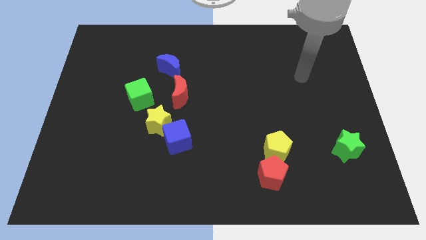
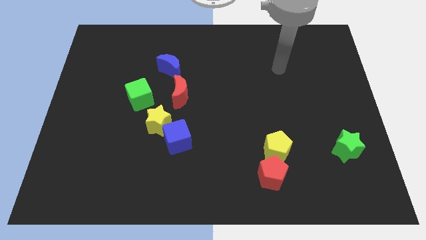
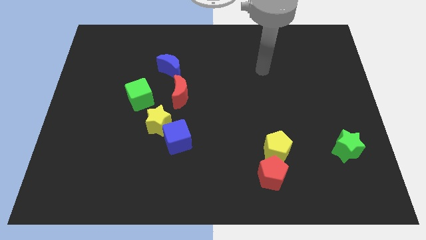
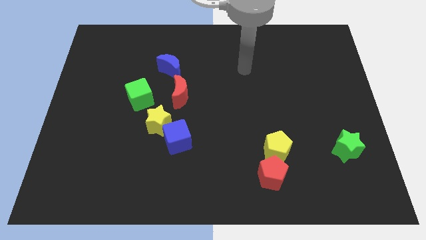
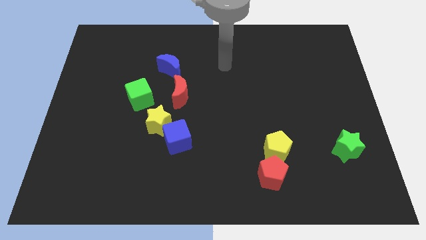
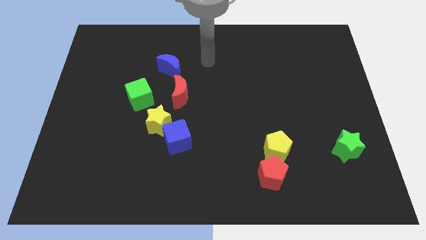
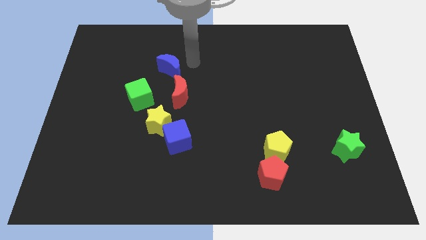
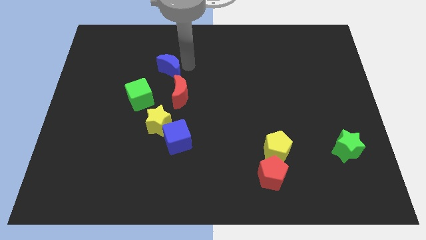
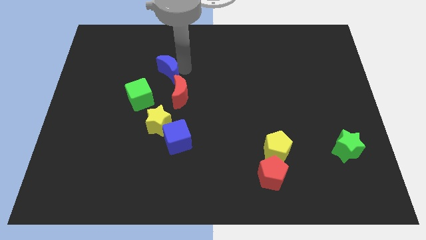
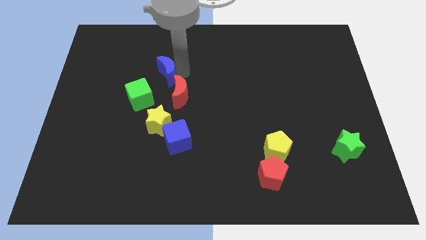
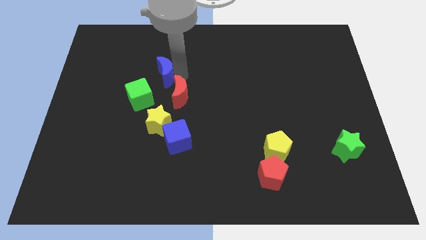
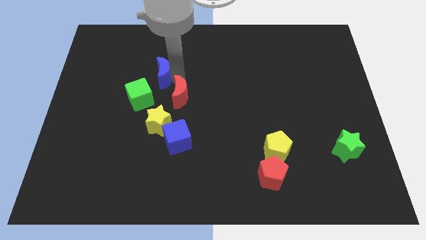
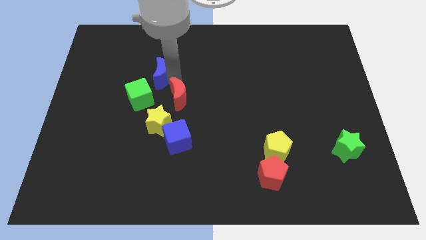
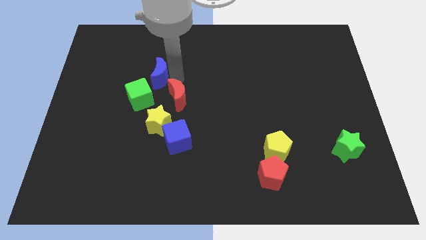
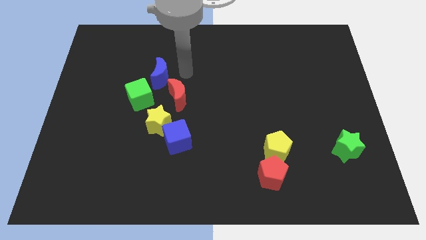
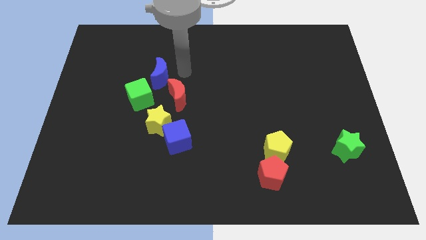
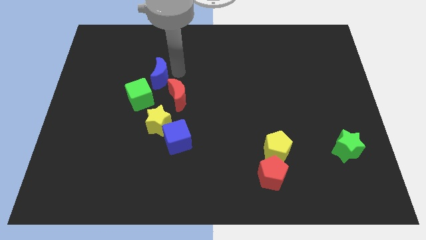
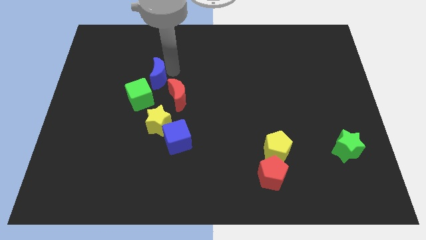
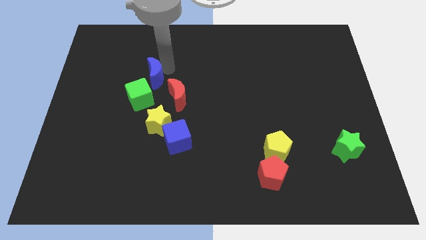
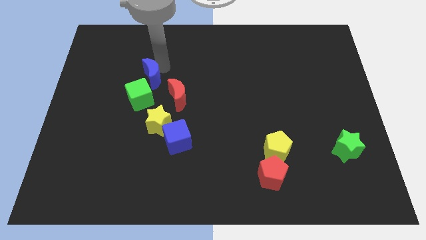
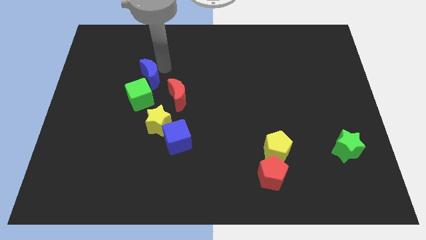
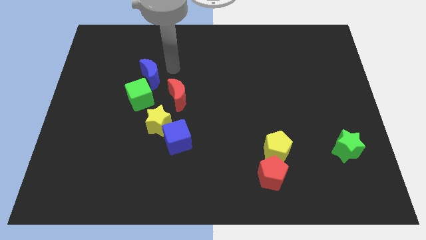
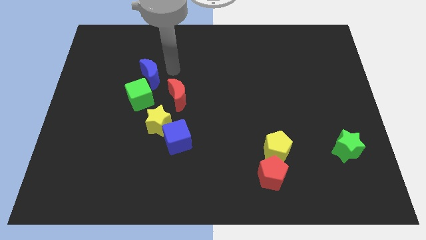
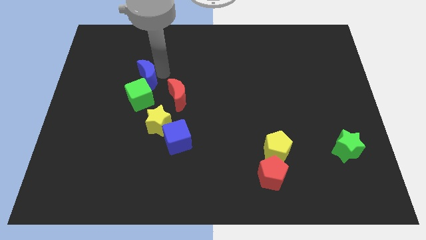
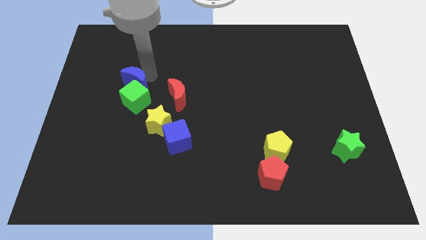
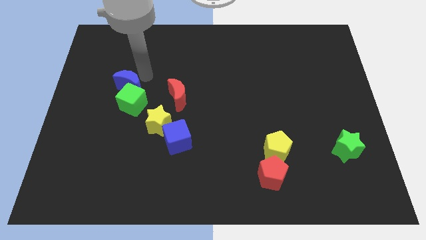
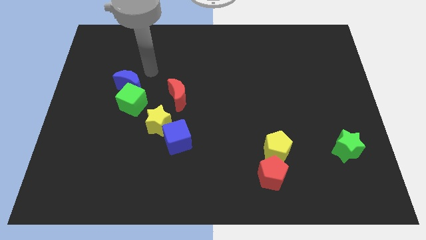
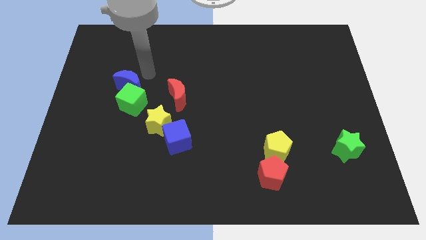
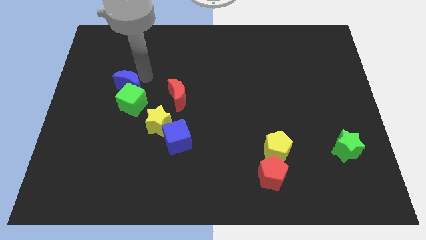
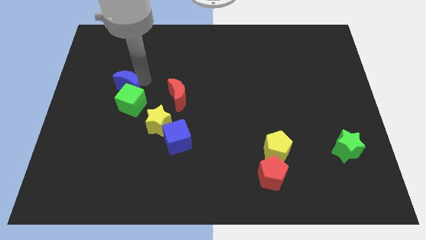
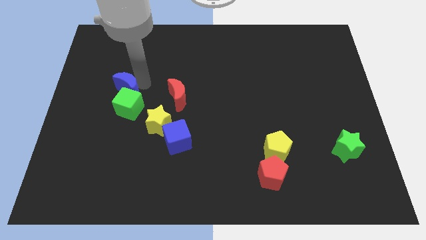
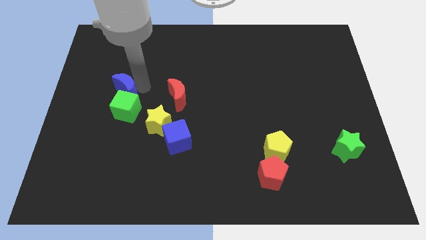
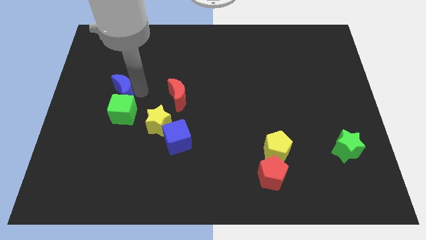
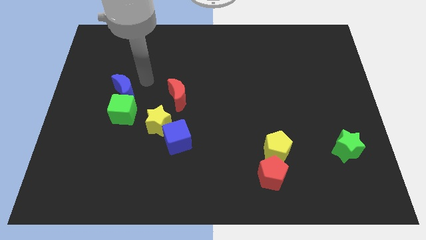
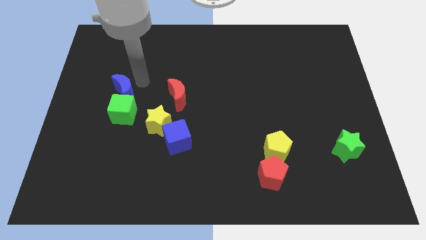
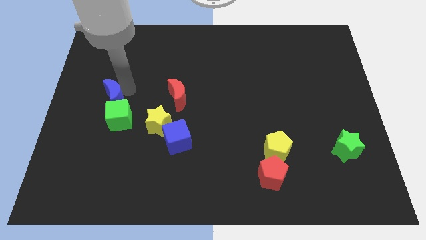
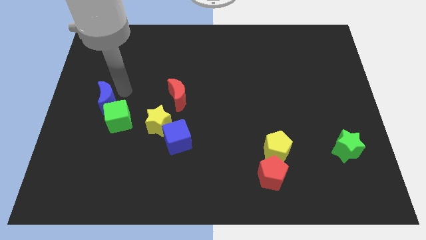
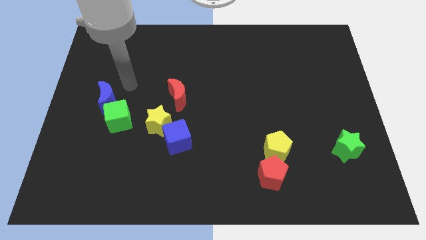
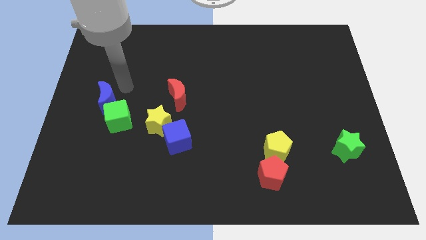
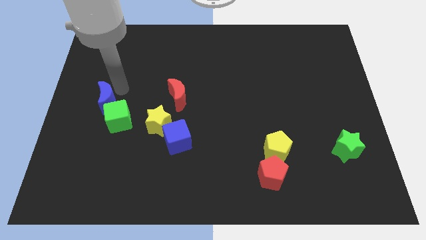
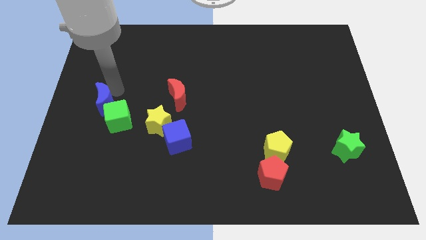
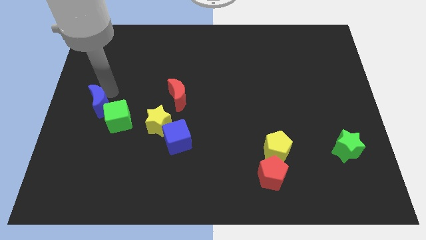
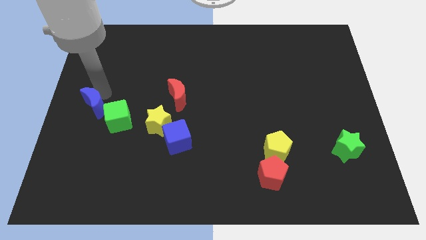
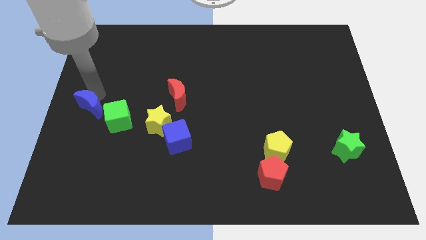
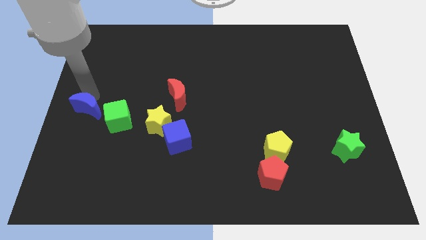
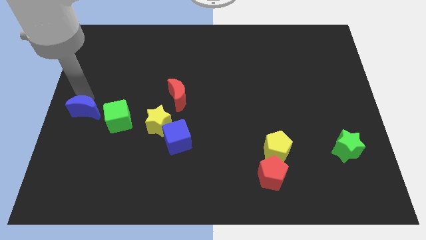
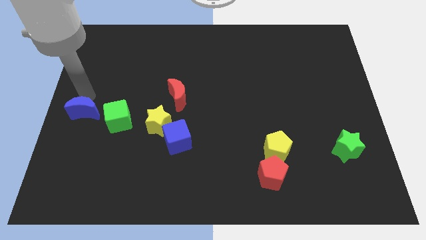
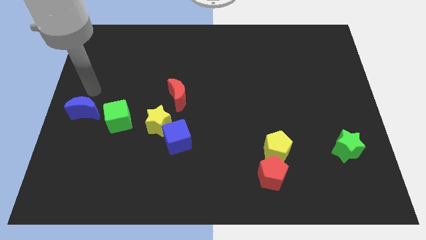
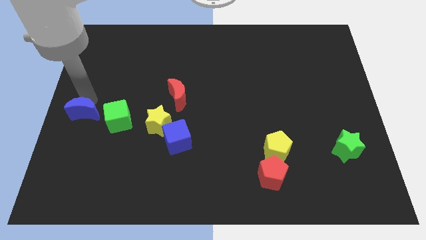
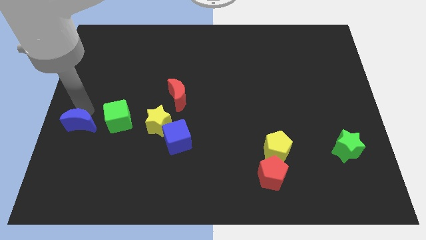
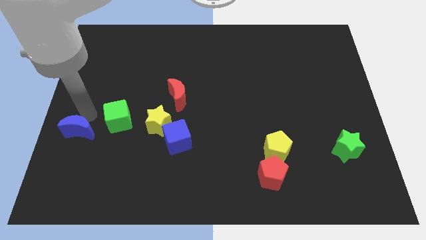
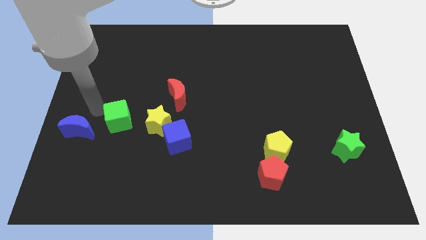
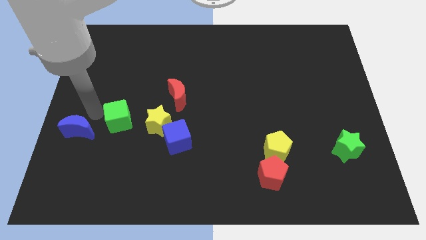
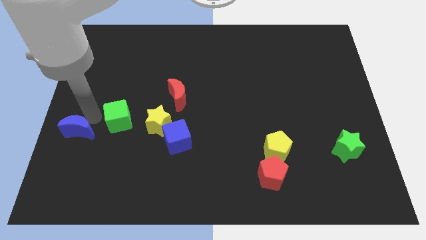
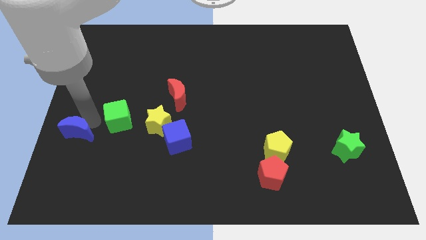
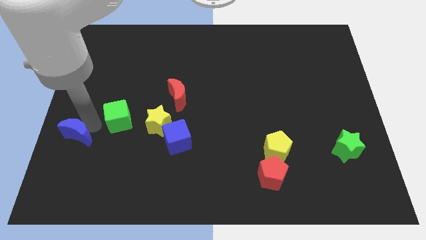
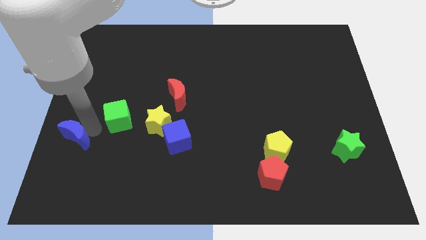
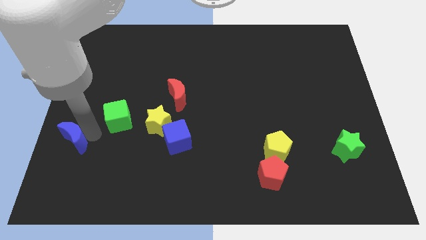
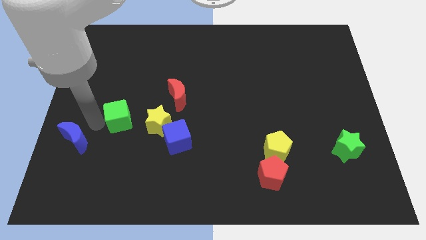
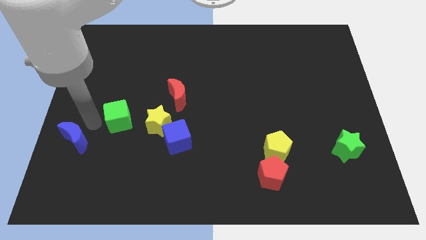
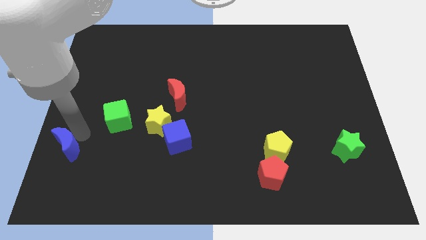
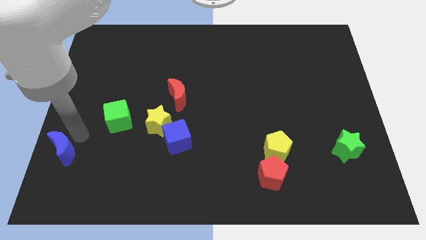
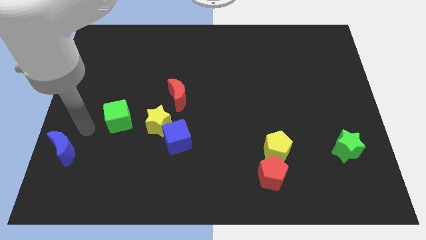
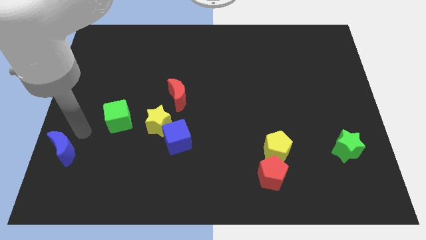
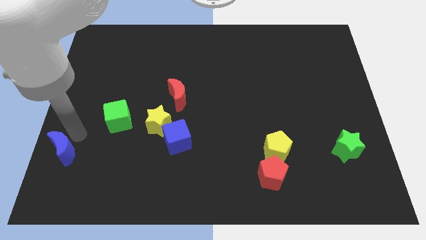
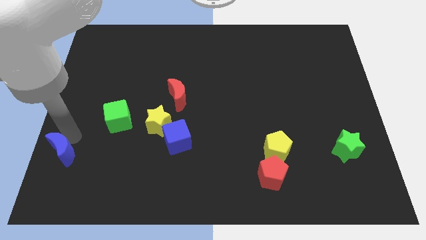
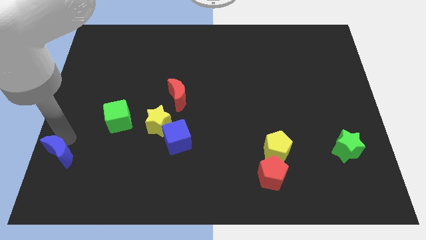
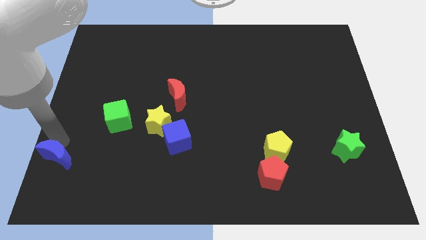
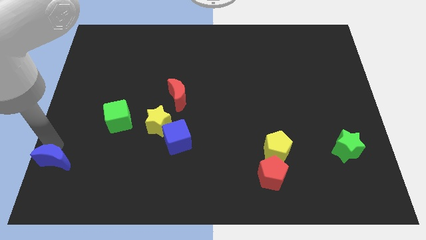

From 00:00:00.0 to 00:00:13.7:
put the blue moon to the bottom left of the board
